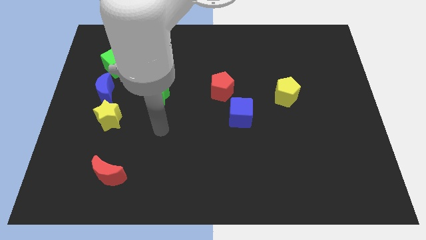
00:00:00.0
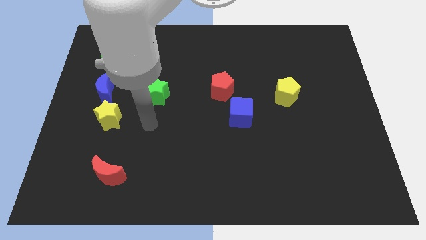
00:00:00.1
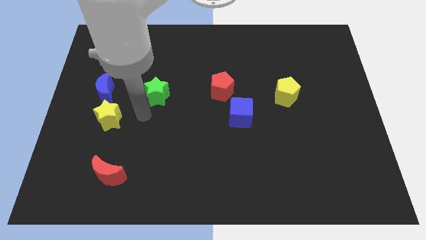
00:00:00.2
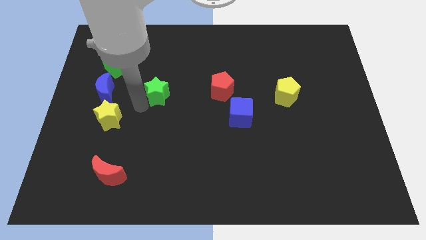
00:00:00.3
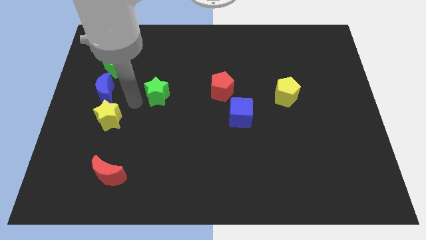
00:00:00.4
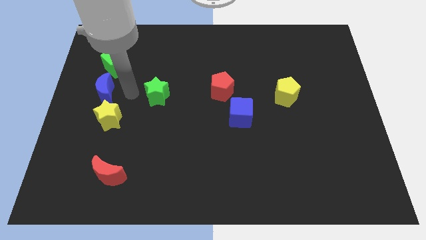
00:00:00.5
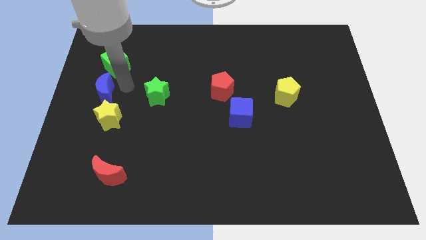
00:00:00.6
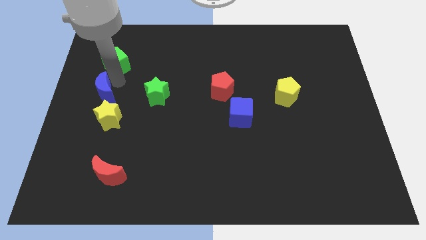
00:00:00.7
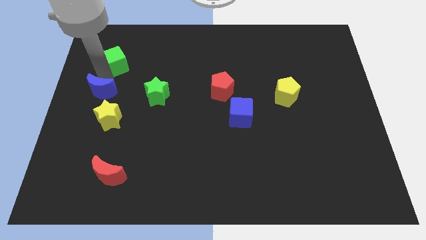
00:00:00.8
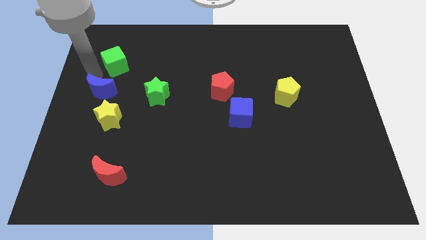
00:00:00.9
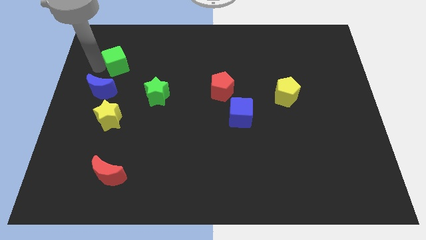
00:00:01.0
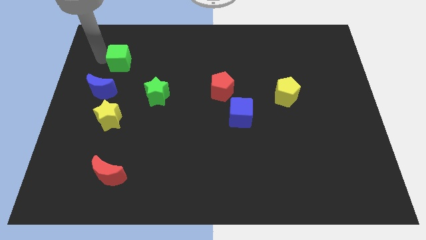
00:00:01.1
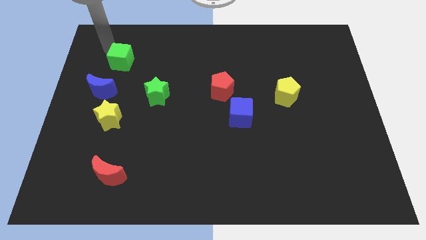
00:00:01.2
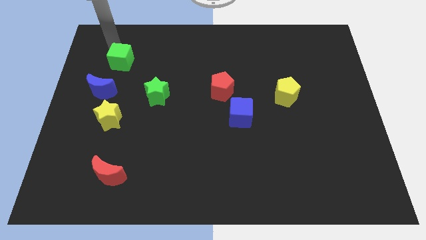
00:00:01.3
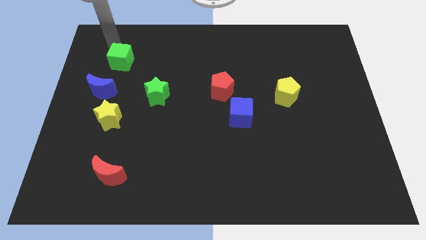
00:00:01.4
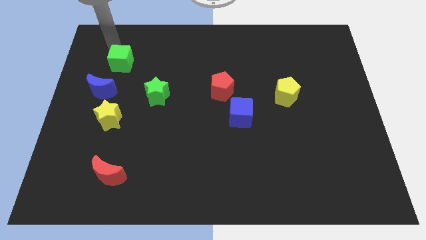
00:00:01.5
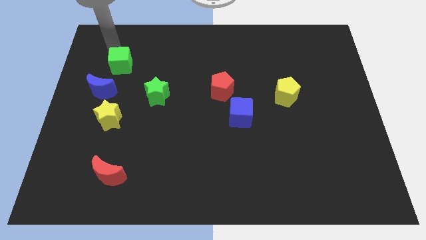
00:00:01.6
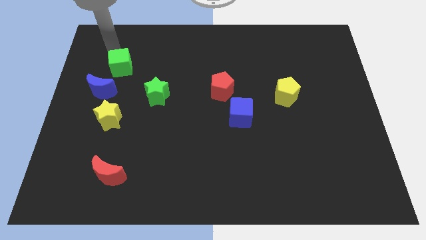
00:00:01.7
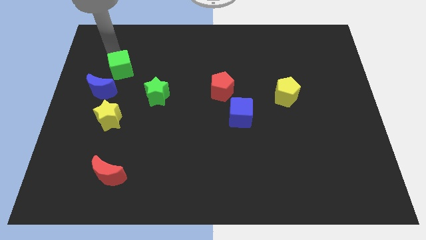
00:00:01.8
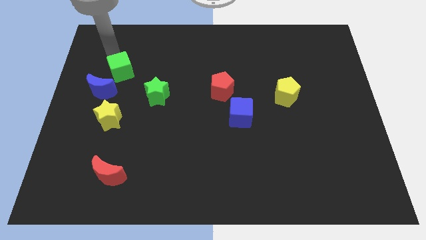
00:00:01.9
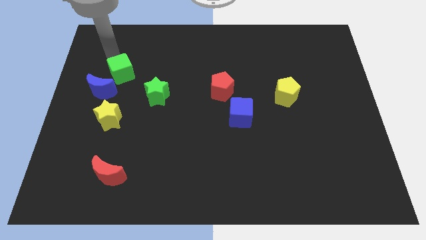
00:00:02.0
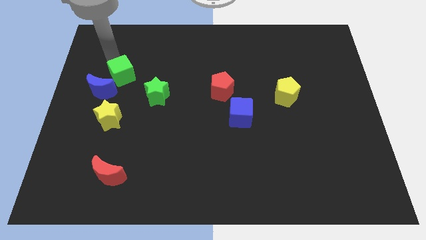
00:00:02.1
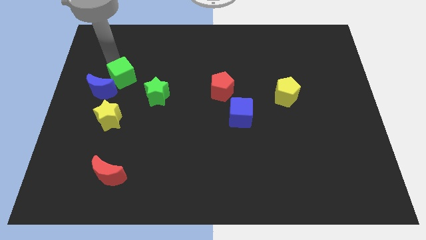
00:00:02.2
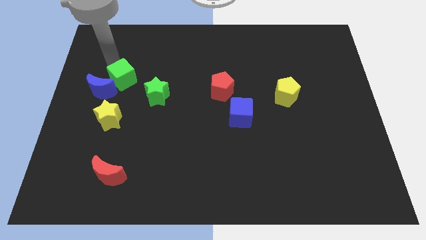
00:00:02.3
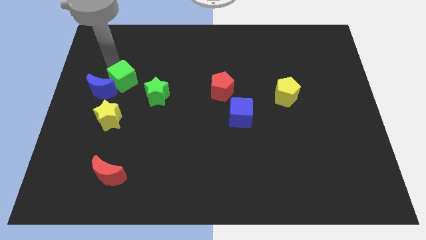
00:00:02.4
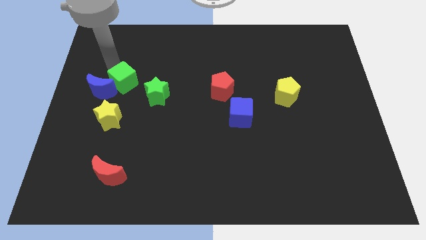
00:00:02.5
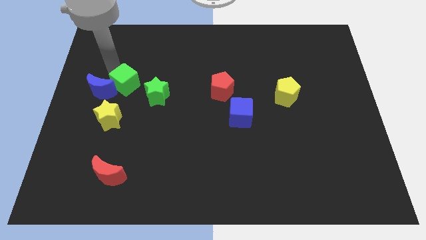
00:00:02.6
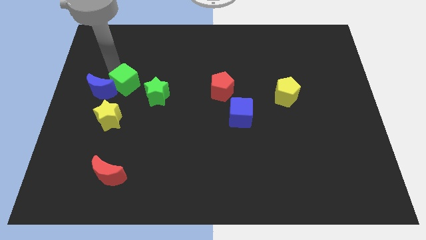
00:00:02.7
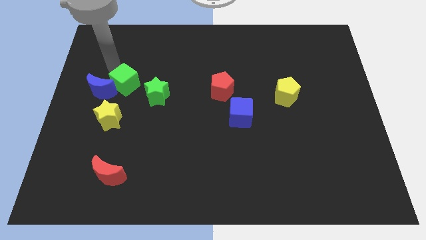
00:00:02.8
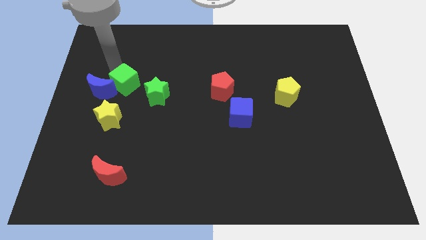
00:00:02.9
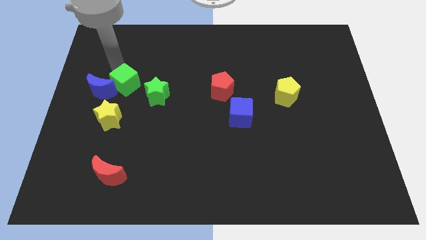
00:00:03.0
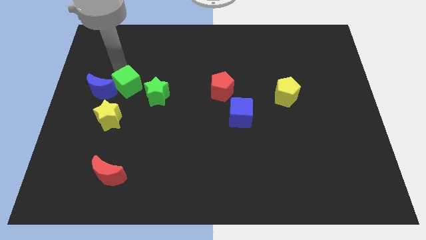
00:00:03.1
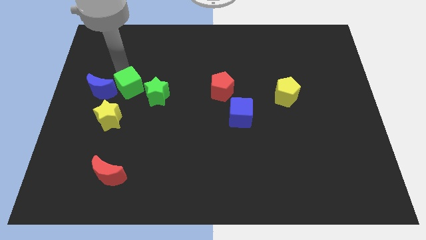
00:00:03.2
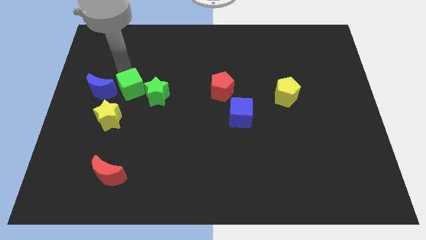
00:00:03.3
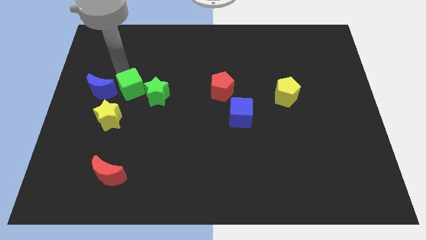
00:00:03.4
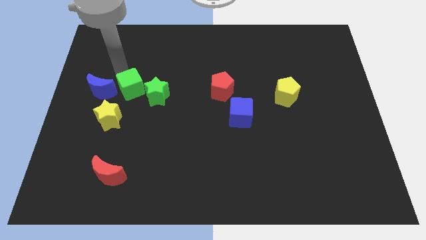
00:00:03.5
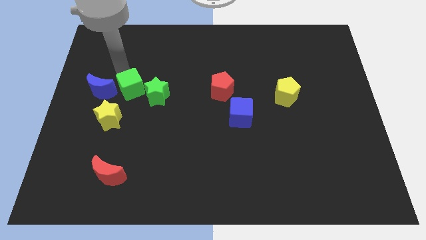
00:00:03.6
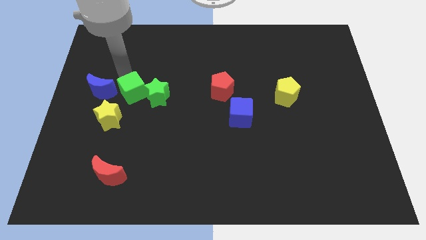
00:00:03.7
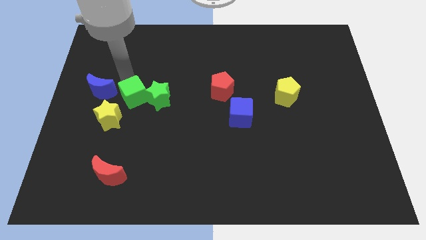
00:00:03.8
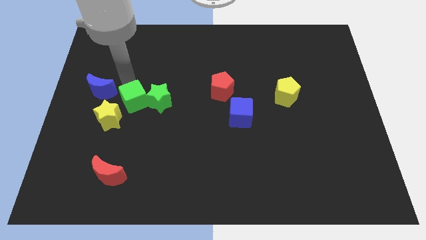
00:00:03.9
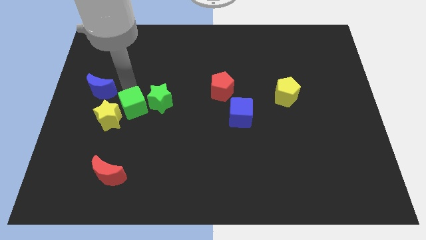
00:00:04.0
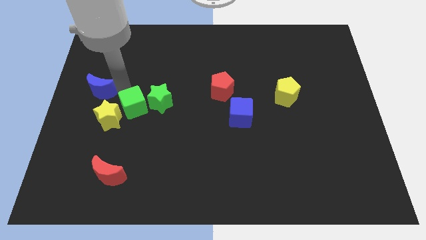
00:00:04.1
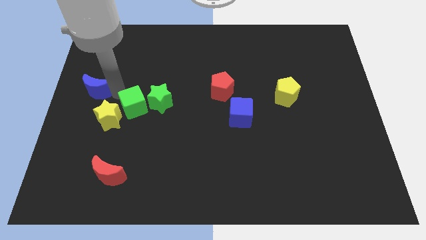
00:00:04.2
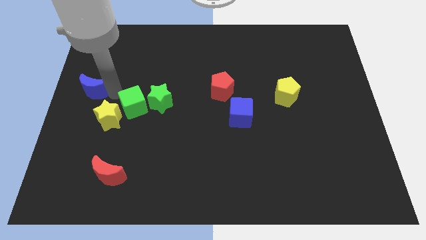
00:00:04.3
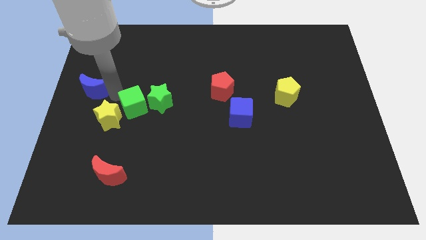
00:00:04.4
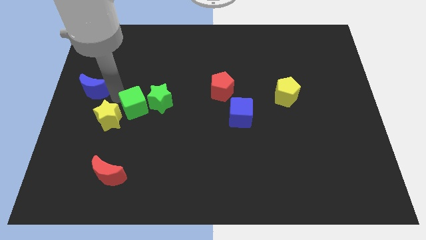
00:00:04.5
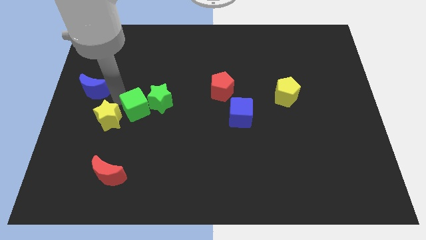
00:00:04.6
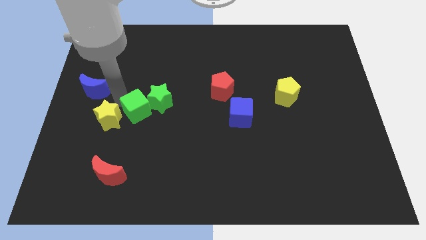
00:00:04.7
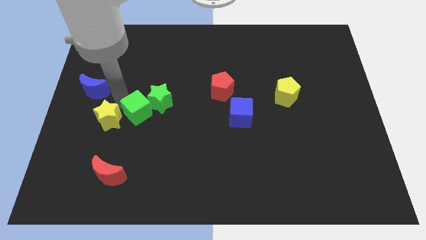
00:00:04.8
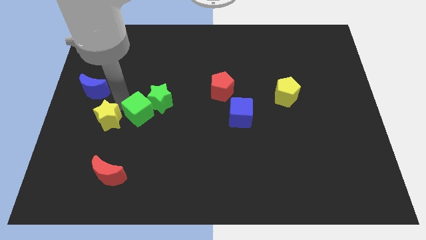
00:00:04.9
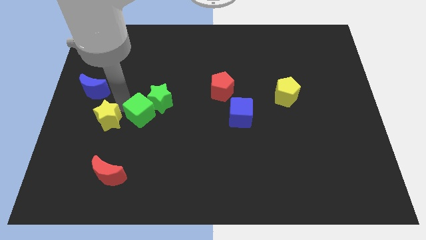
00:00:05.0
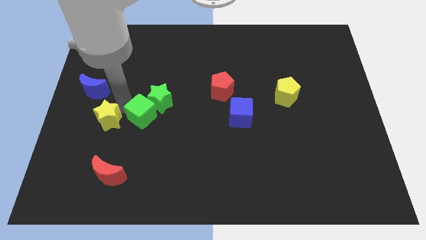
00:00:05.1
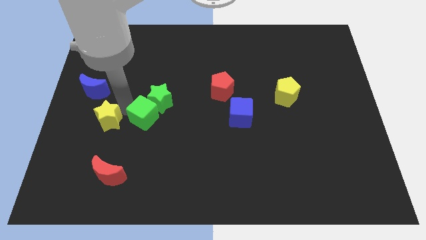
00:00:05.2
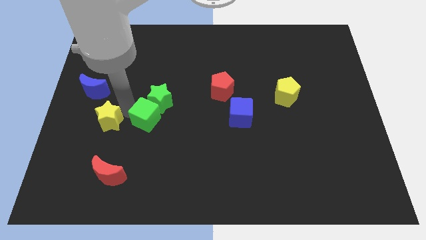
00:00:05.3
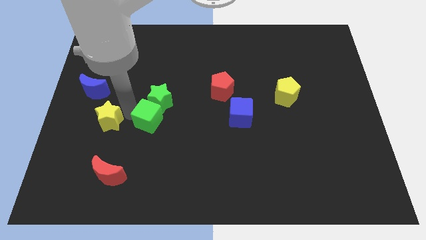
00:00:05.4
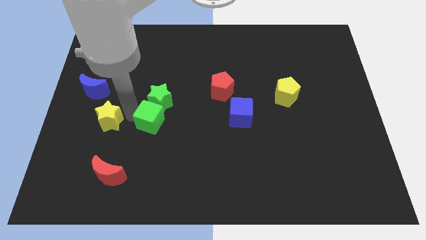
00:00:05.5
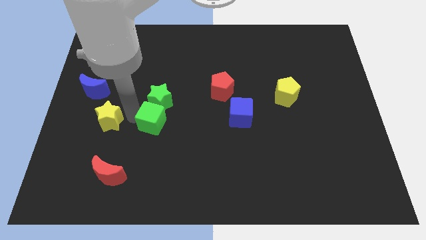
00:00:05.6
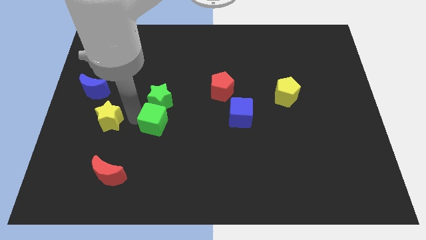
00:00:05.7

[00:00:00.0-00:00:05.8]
slide the green cube diagonally down and right

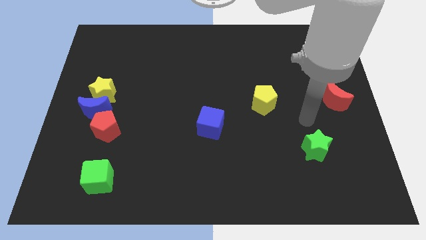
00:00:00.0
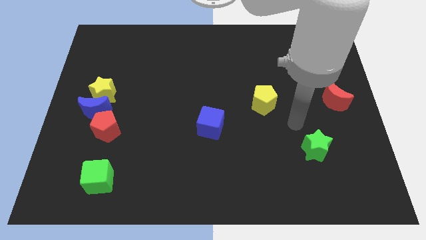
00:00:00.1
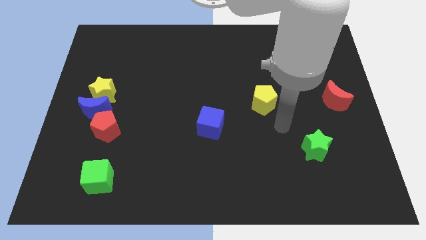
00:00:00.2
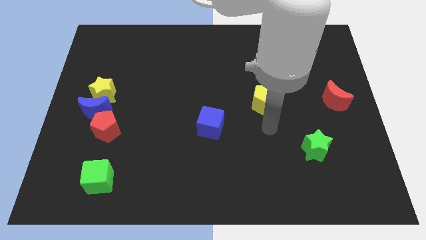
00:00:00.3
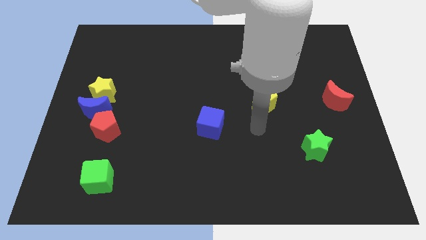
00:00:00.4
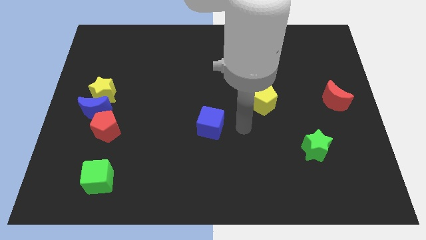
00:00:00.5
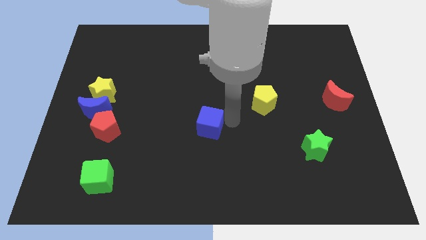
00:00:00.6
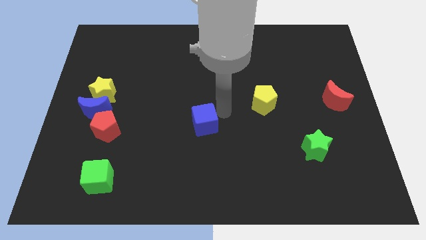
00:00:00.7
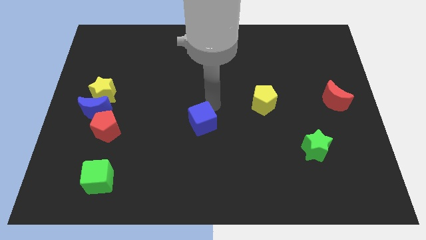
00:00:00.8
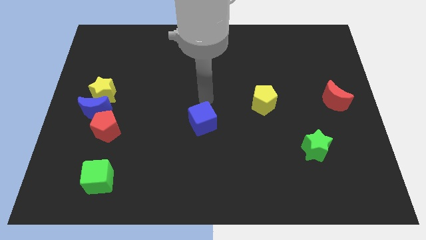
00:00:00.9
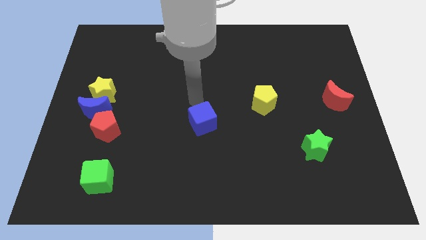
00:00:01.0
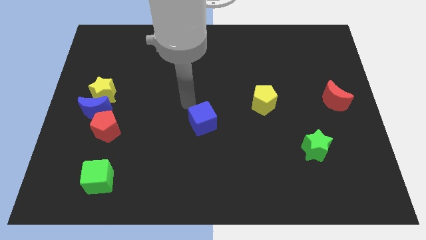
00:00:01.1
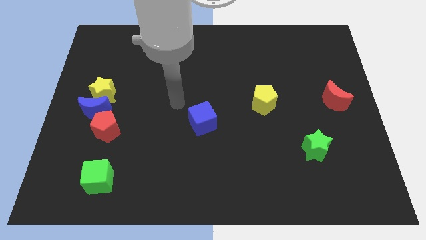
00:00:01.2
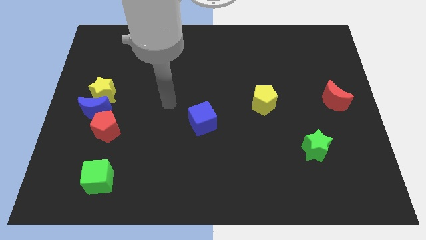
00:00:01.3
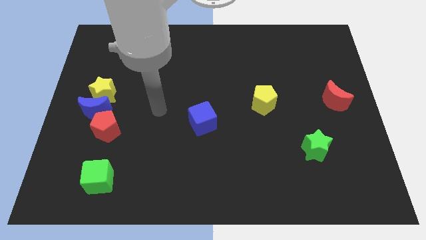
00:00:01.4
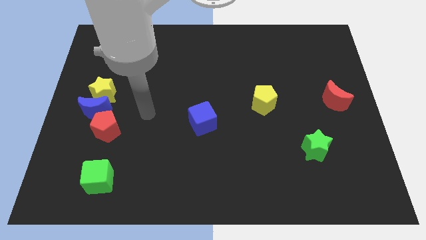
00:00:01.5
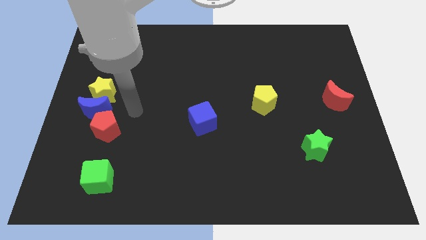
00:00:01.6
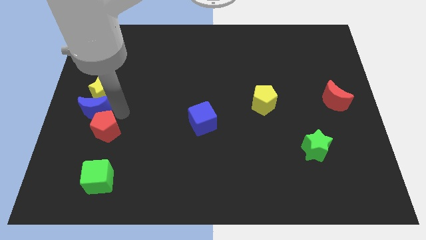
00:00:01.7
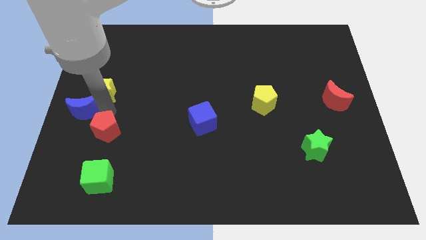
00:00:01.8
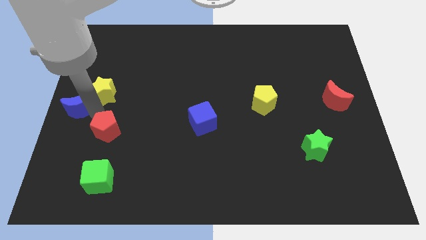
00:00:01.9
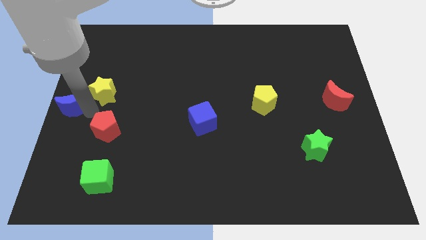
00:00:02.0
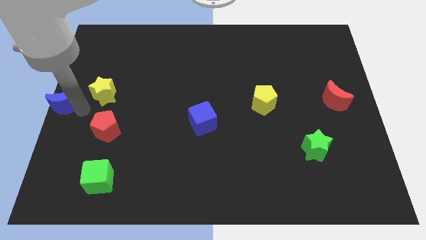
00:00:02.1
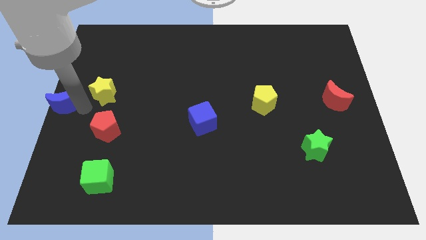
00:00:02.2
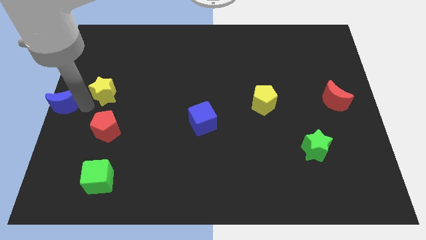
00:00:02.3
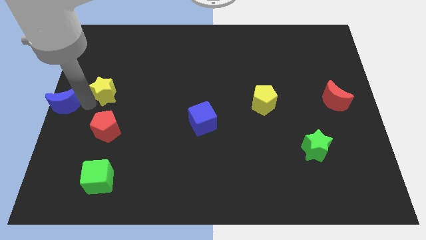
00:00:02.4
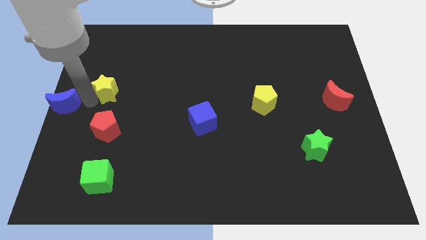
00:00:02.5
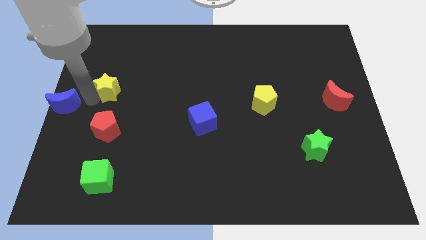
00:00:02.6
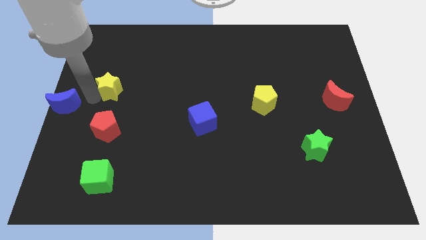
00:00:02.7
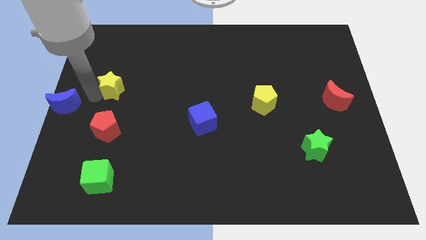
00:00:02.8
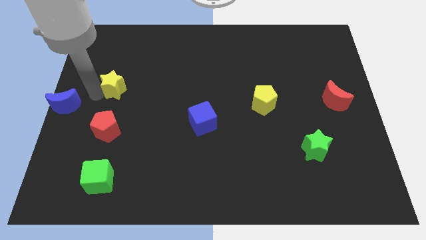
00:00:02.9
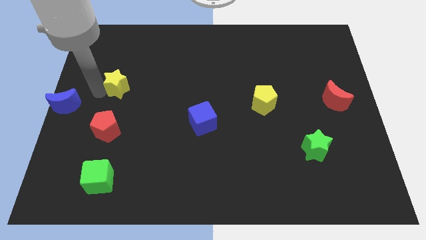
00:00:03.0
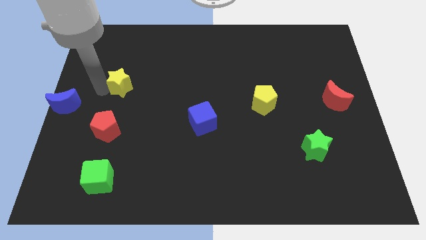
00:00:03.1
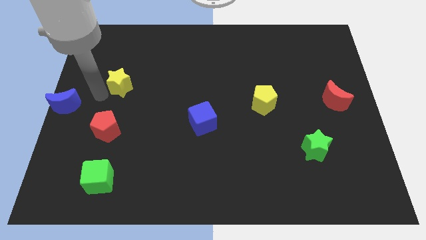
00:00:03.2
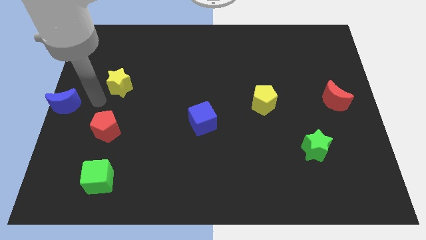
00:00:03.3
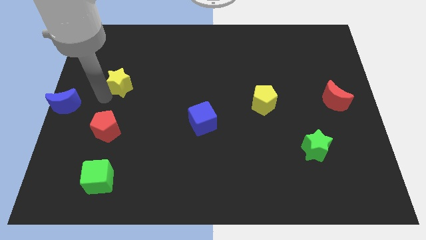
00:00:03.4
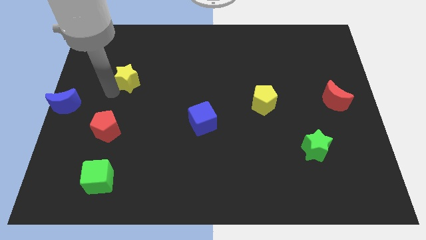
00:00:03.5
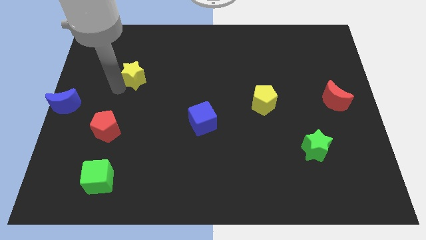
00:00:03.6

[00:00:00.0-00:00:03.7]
move the yellow star diagonally up and to the right a little bit
